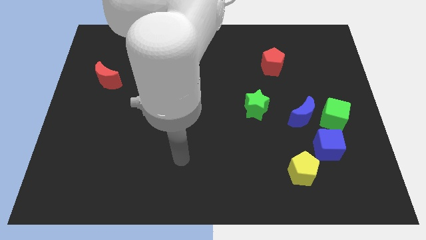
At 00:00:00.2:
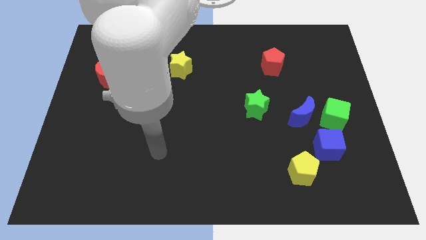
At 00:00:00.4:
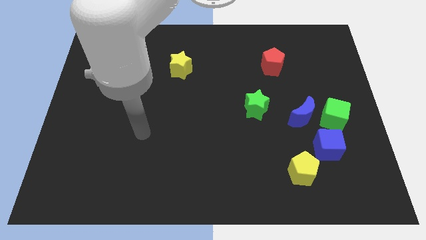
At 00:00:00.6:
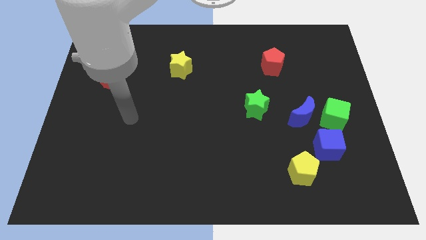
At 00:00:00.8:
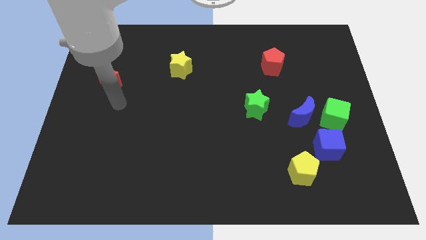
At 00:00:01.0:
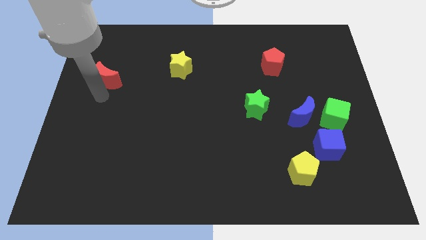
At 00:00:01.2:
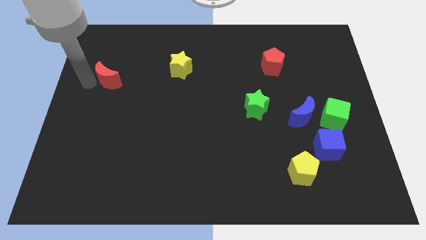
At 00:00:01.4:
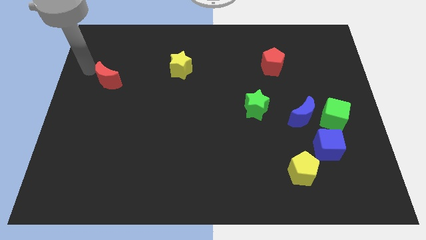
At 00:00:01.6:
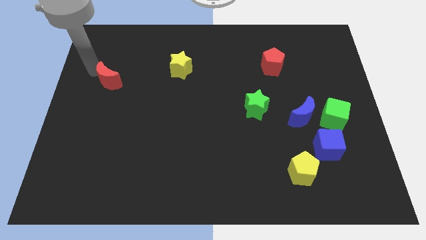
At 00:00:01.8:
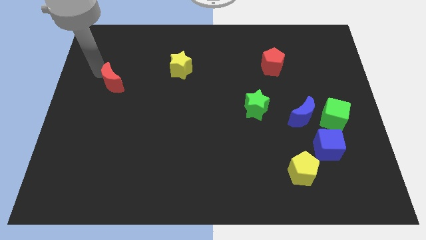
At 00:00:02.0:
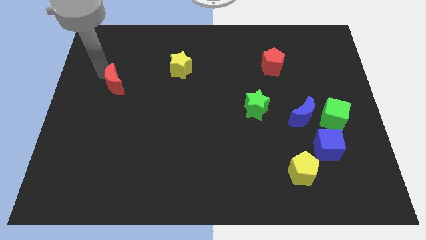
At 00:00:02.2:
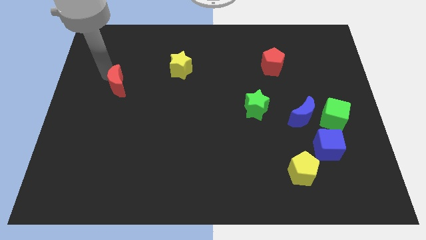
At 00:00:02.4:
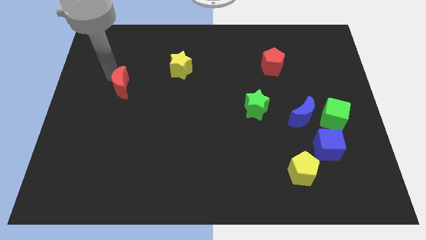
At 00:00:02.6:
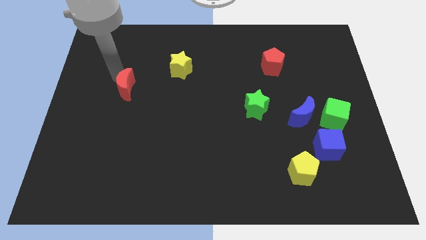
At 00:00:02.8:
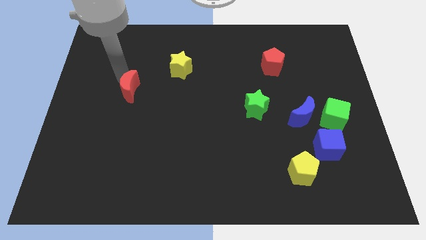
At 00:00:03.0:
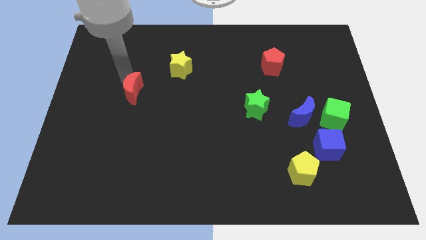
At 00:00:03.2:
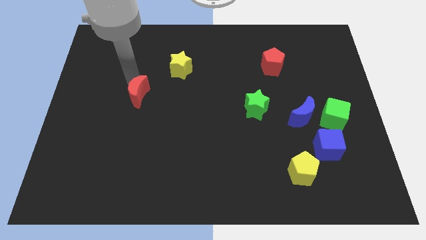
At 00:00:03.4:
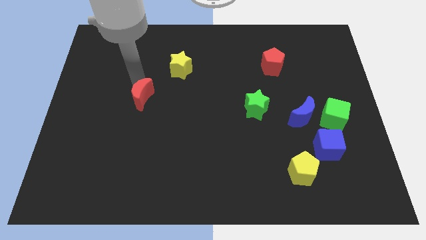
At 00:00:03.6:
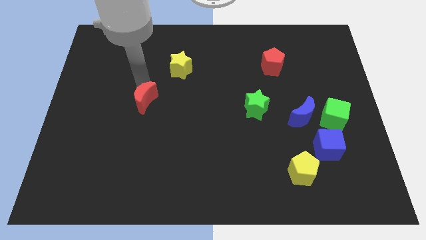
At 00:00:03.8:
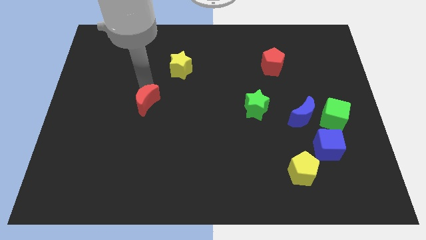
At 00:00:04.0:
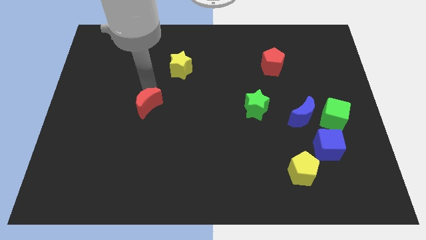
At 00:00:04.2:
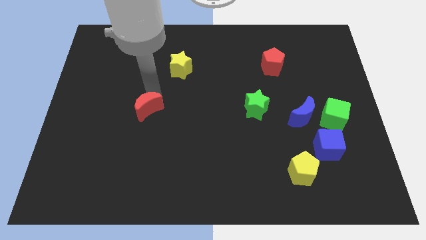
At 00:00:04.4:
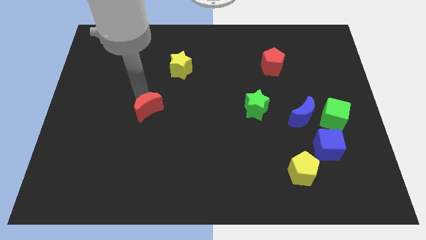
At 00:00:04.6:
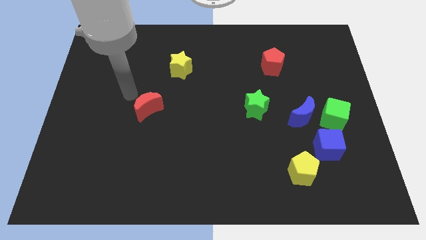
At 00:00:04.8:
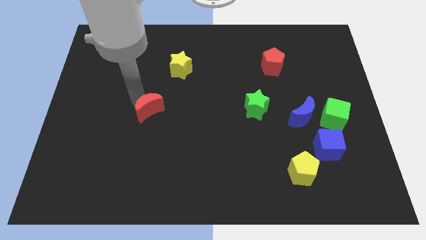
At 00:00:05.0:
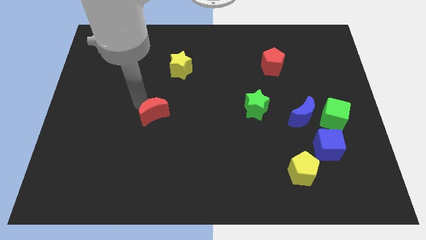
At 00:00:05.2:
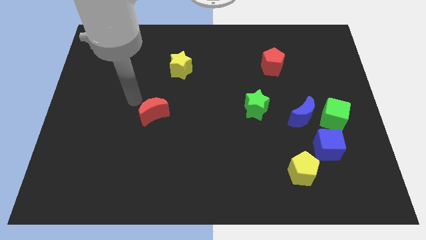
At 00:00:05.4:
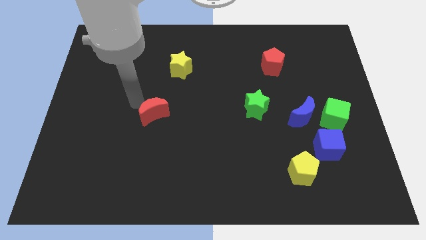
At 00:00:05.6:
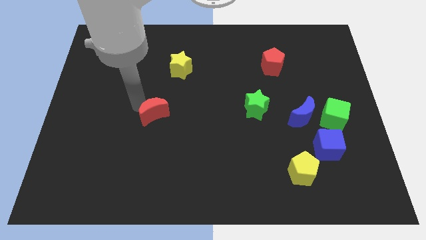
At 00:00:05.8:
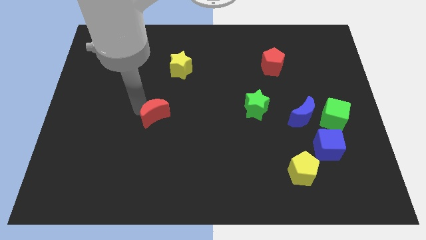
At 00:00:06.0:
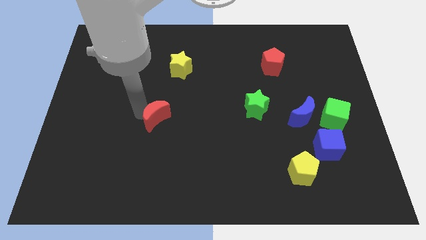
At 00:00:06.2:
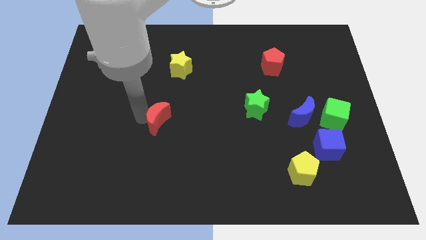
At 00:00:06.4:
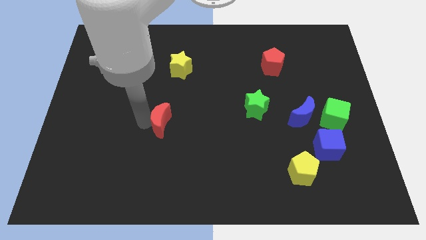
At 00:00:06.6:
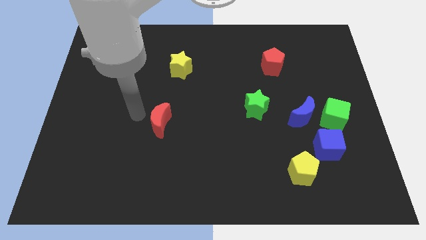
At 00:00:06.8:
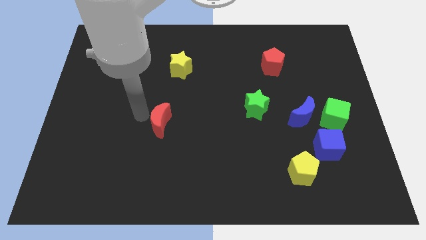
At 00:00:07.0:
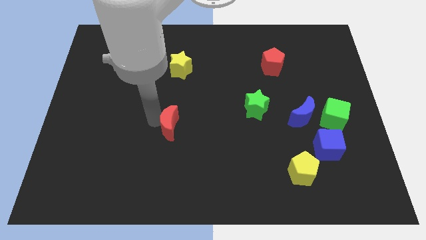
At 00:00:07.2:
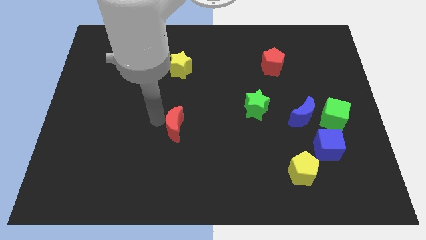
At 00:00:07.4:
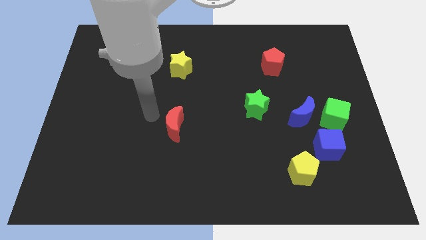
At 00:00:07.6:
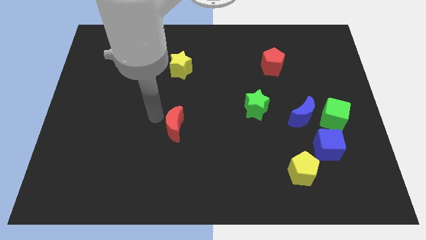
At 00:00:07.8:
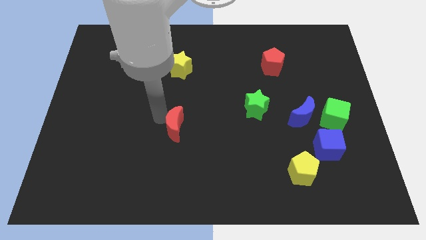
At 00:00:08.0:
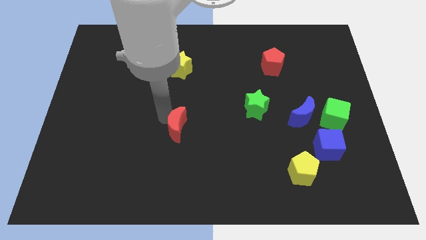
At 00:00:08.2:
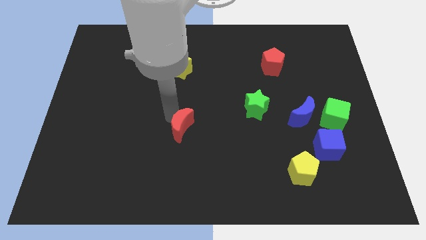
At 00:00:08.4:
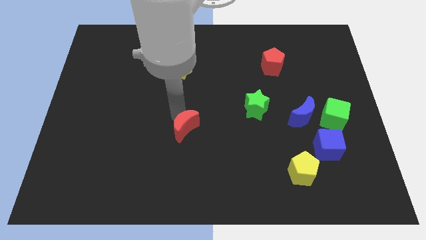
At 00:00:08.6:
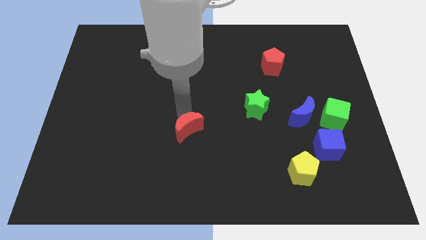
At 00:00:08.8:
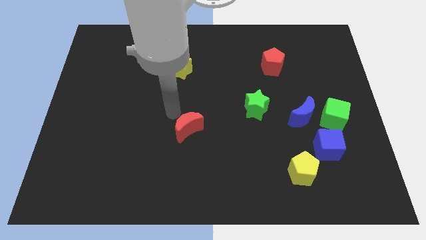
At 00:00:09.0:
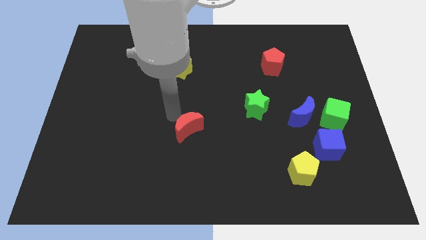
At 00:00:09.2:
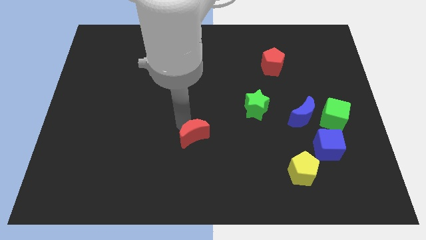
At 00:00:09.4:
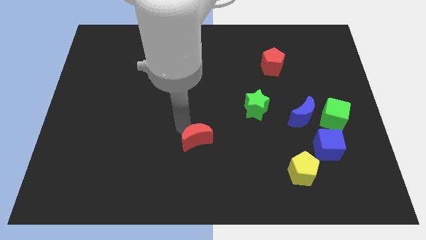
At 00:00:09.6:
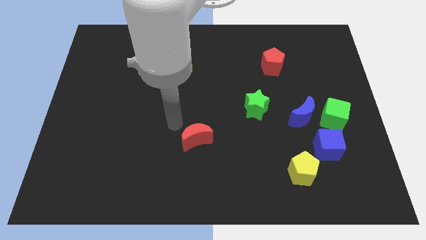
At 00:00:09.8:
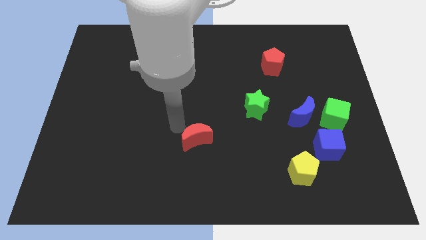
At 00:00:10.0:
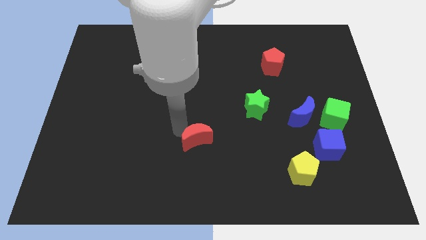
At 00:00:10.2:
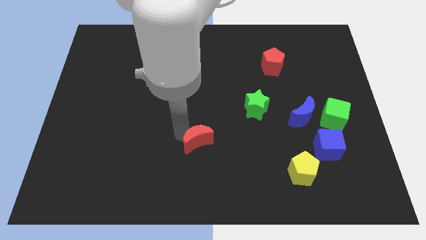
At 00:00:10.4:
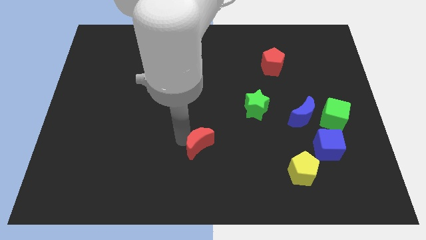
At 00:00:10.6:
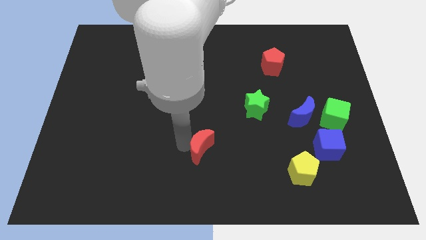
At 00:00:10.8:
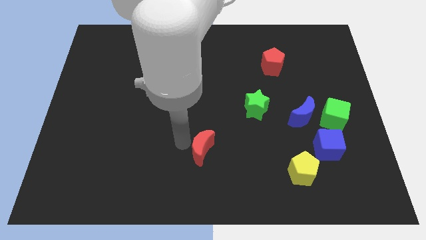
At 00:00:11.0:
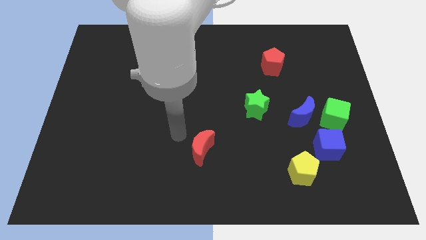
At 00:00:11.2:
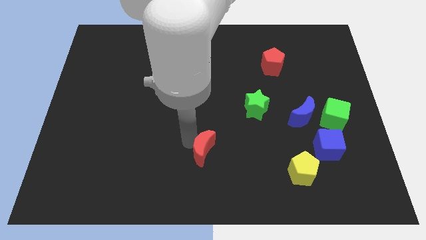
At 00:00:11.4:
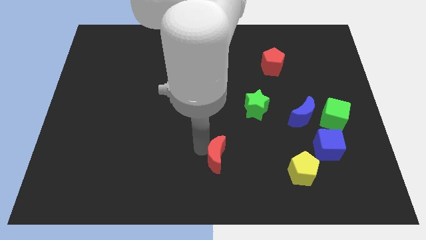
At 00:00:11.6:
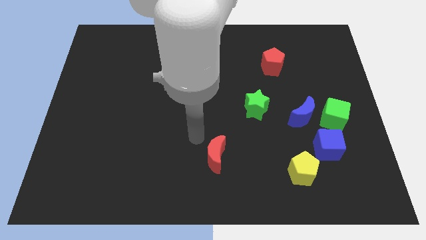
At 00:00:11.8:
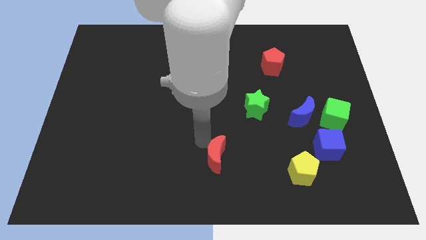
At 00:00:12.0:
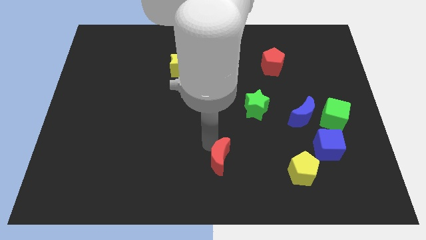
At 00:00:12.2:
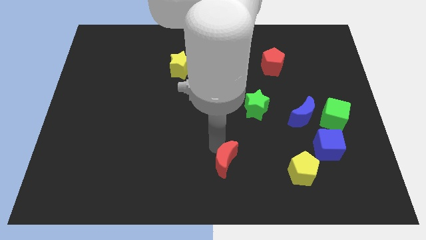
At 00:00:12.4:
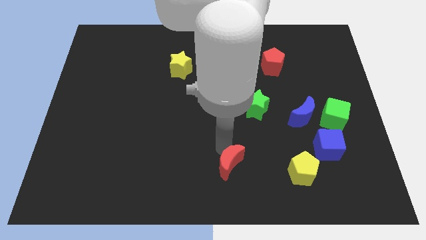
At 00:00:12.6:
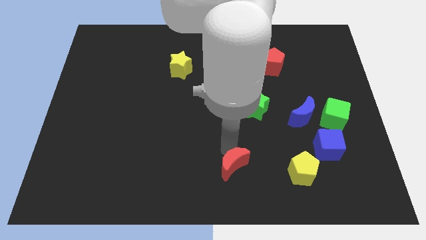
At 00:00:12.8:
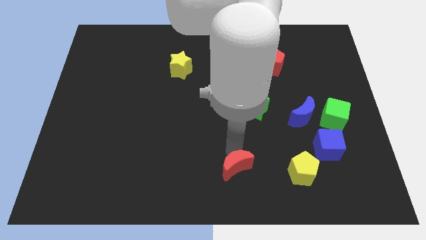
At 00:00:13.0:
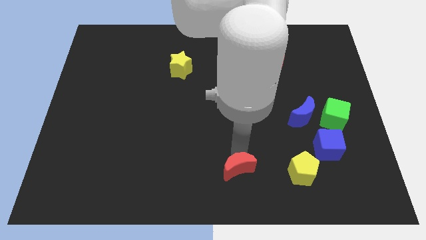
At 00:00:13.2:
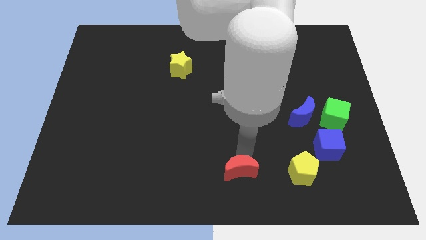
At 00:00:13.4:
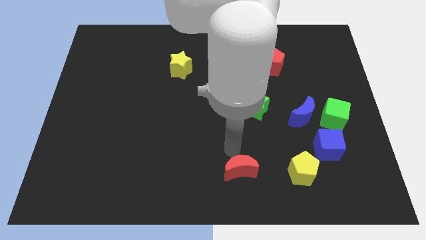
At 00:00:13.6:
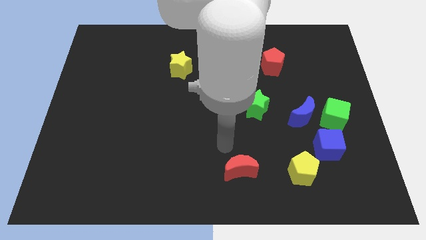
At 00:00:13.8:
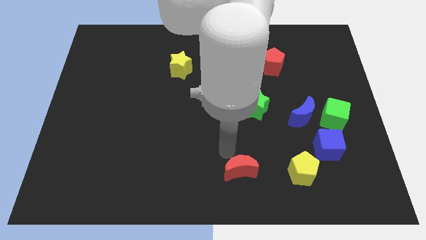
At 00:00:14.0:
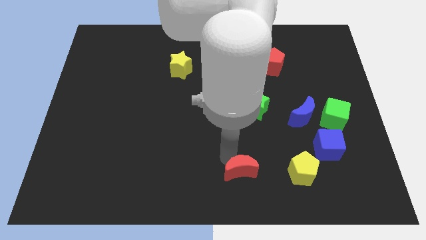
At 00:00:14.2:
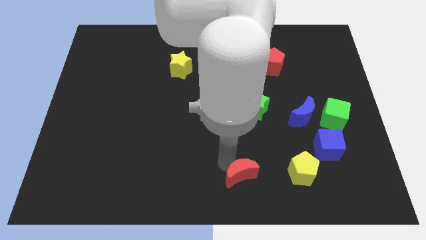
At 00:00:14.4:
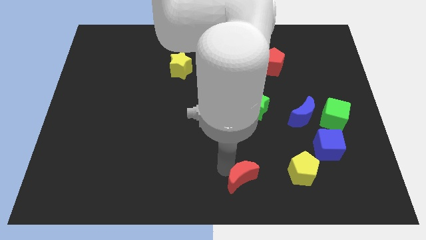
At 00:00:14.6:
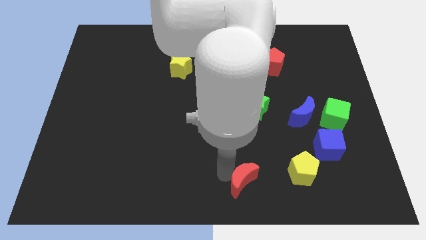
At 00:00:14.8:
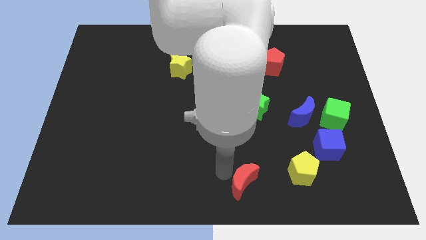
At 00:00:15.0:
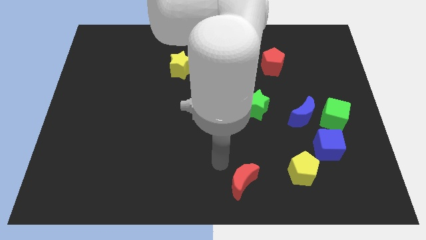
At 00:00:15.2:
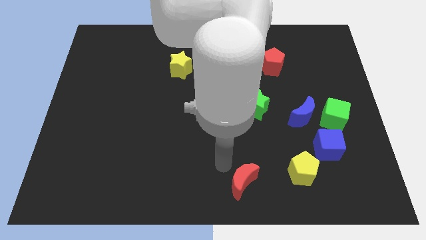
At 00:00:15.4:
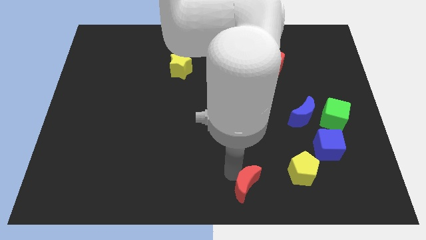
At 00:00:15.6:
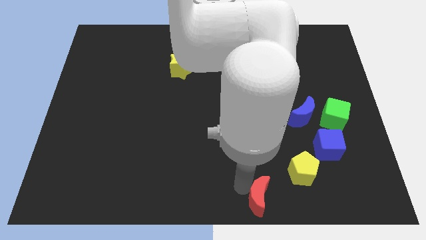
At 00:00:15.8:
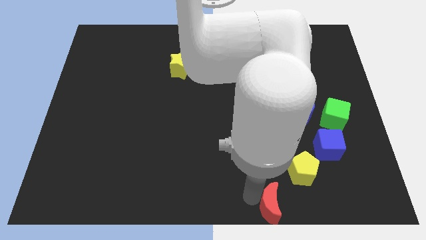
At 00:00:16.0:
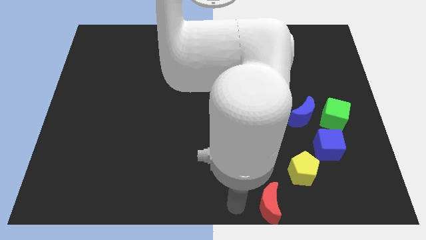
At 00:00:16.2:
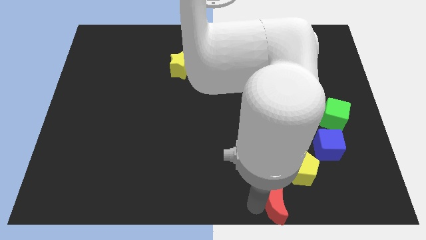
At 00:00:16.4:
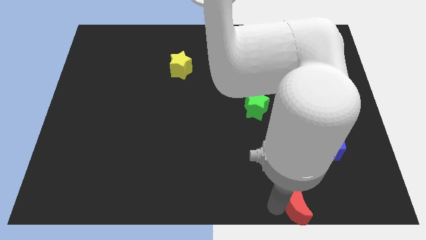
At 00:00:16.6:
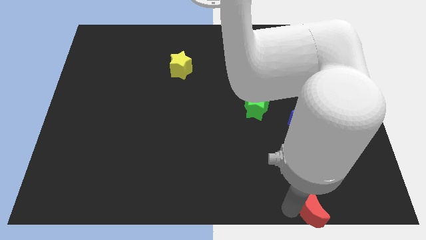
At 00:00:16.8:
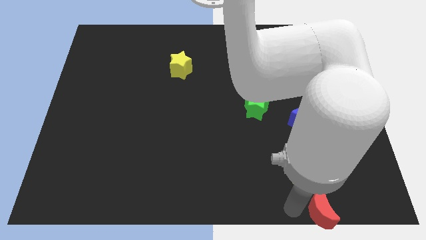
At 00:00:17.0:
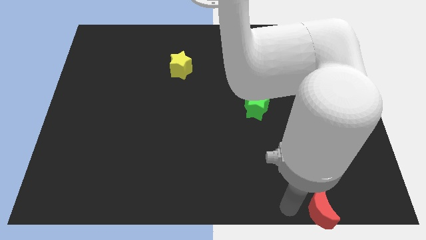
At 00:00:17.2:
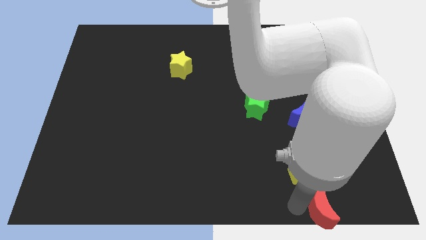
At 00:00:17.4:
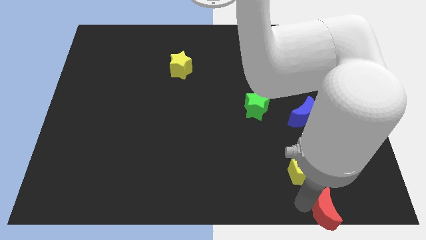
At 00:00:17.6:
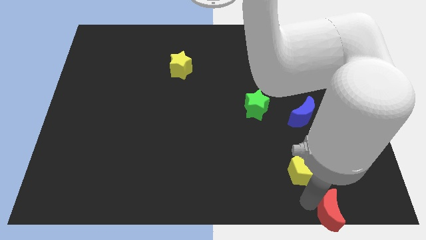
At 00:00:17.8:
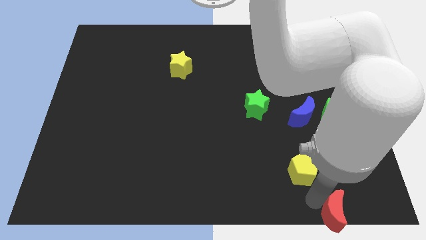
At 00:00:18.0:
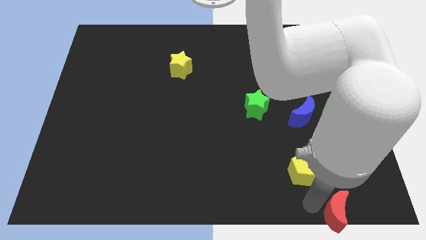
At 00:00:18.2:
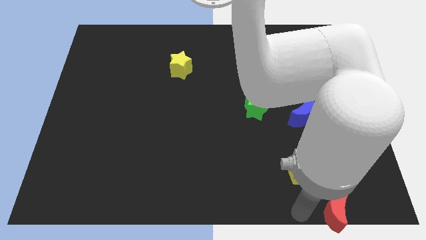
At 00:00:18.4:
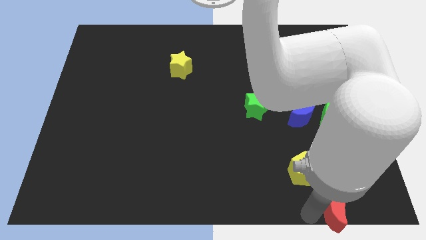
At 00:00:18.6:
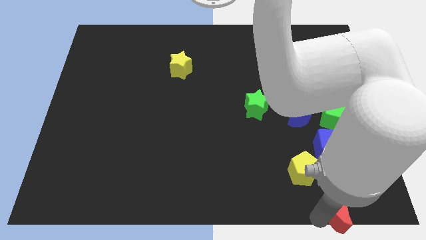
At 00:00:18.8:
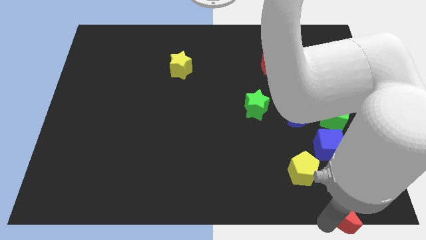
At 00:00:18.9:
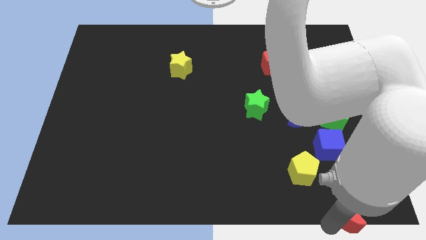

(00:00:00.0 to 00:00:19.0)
put the red moon to the bottom right of the board
